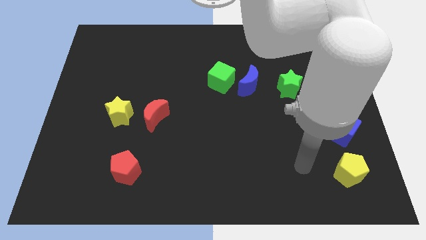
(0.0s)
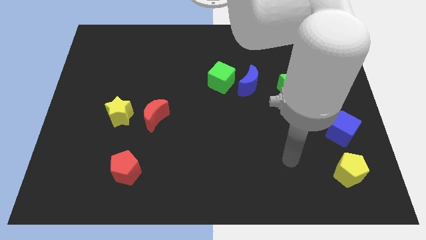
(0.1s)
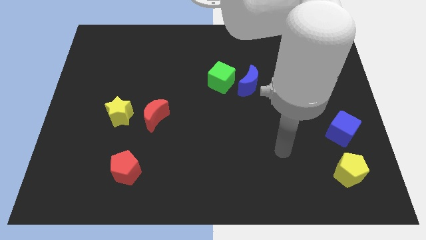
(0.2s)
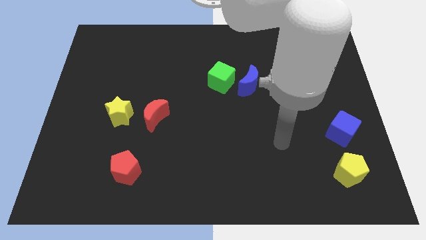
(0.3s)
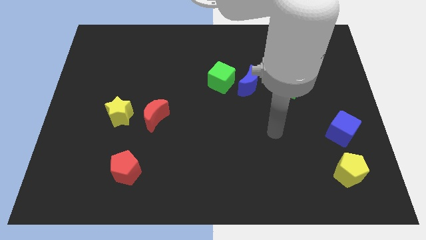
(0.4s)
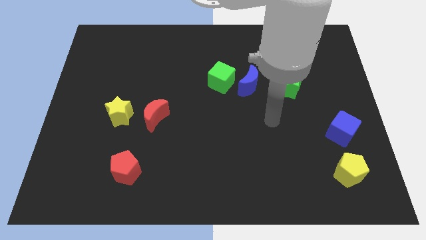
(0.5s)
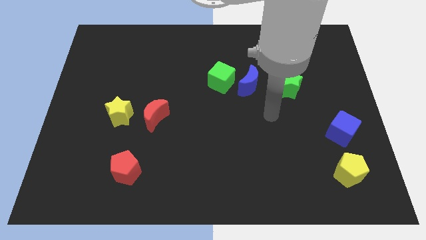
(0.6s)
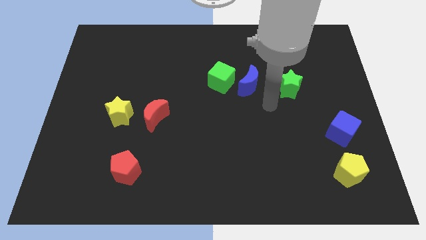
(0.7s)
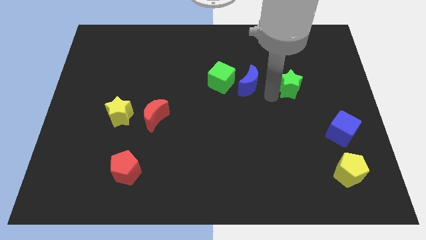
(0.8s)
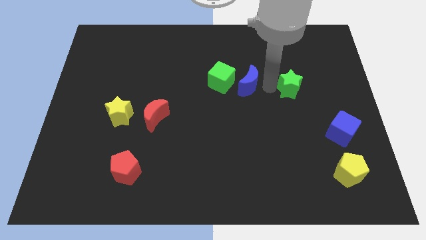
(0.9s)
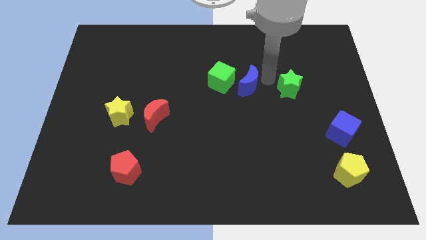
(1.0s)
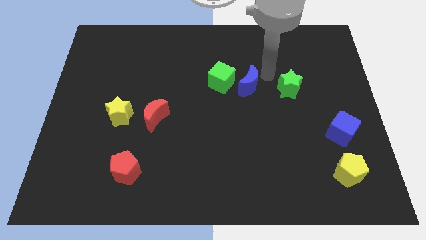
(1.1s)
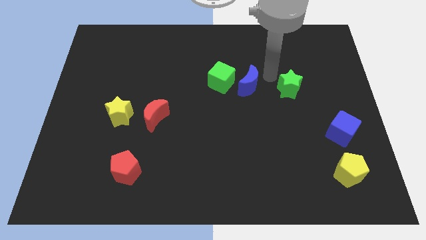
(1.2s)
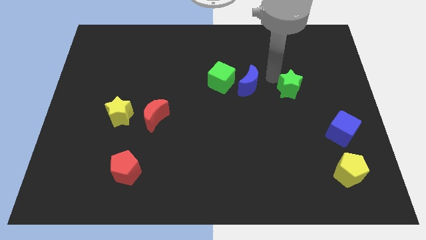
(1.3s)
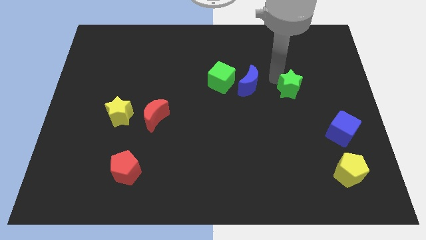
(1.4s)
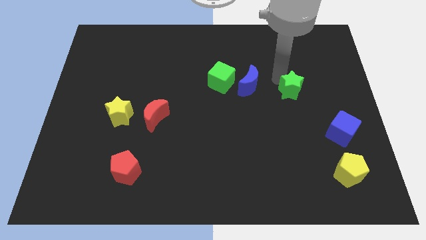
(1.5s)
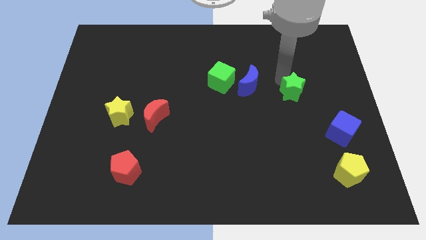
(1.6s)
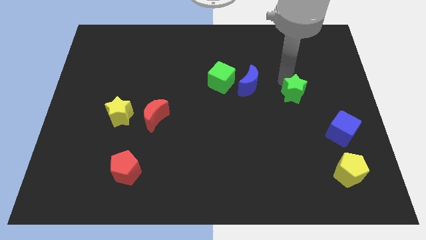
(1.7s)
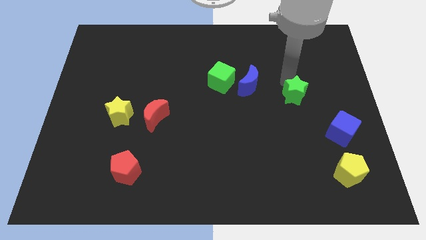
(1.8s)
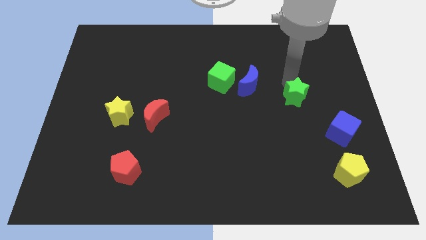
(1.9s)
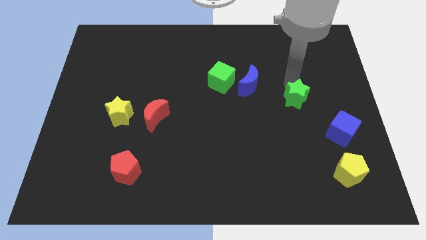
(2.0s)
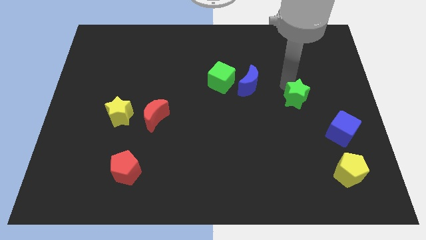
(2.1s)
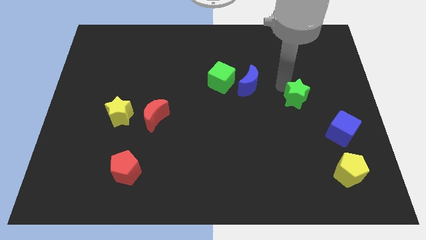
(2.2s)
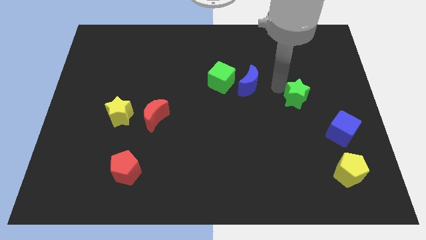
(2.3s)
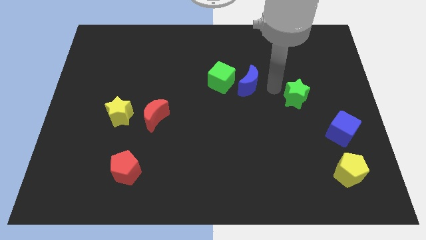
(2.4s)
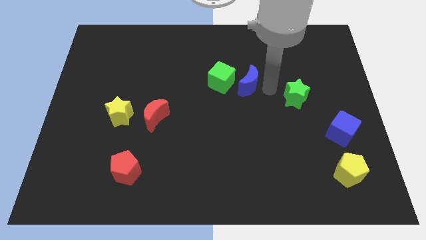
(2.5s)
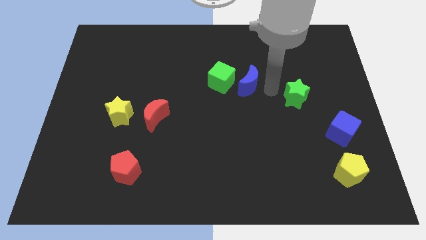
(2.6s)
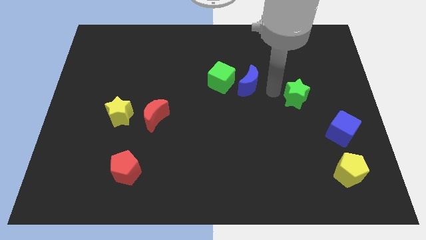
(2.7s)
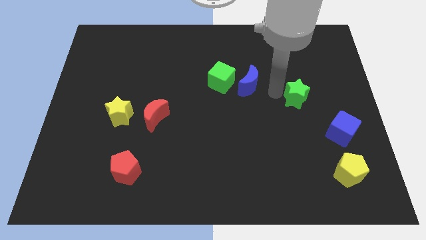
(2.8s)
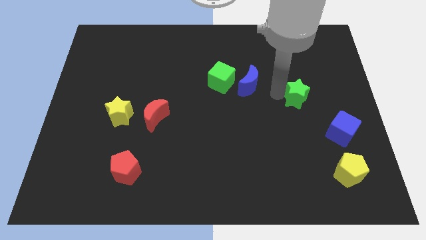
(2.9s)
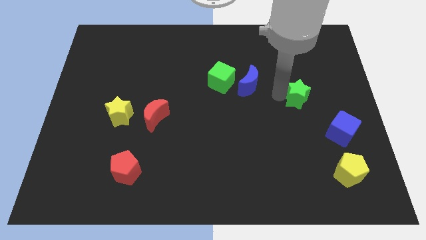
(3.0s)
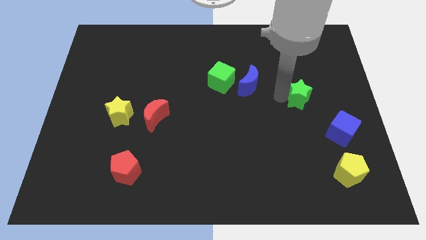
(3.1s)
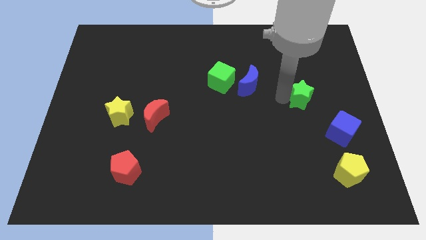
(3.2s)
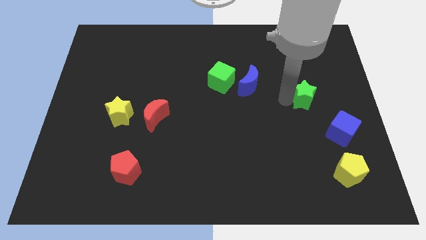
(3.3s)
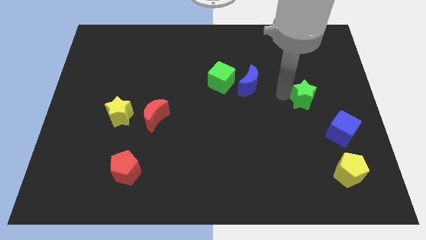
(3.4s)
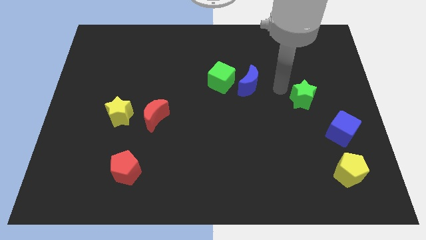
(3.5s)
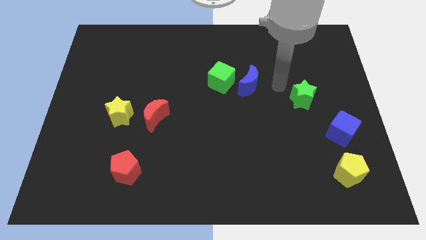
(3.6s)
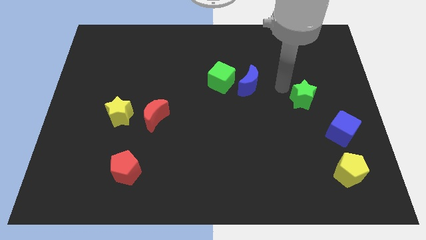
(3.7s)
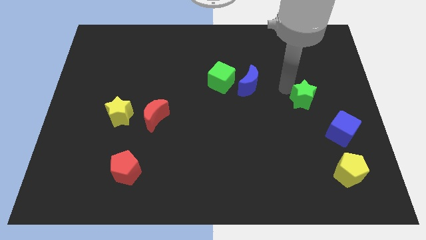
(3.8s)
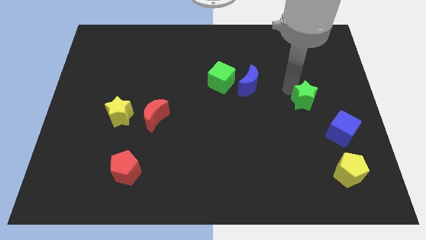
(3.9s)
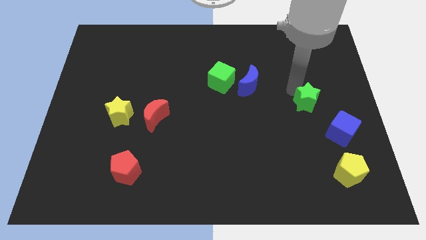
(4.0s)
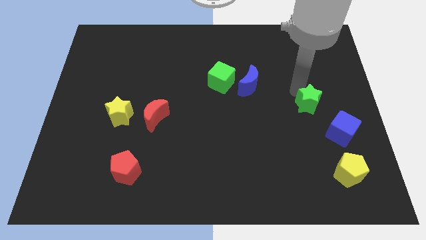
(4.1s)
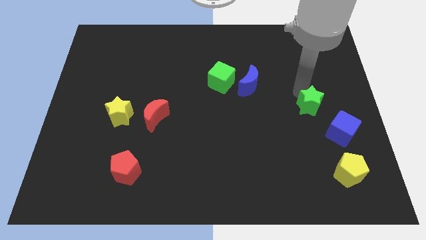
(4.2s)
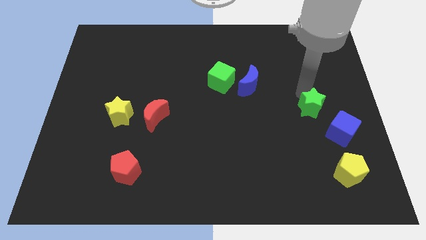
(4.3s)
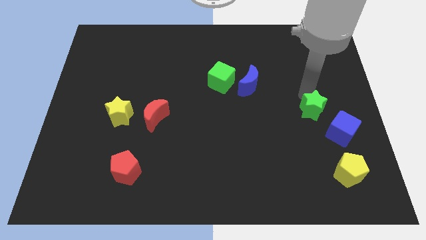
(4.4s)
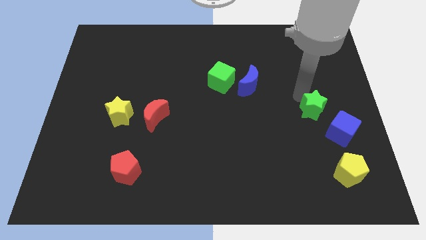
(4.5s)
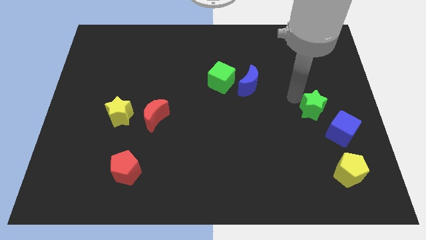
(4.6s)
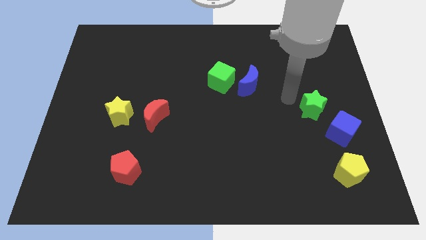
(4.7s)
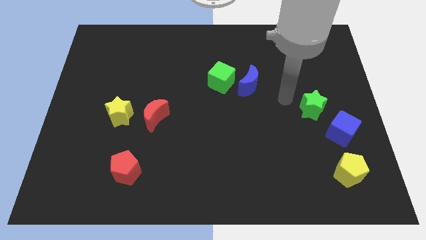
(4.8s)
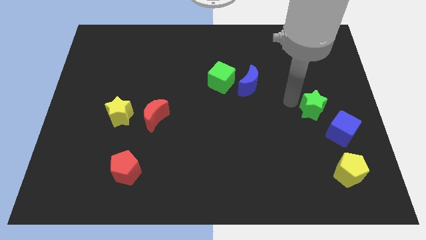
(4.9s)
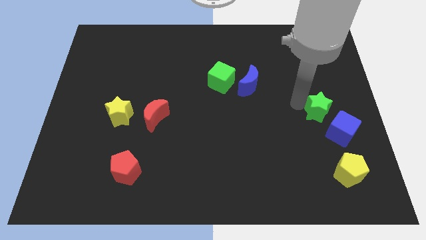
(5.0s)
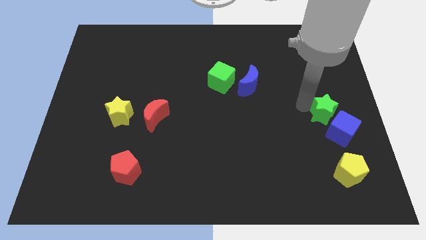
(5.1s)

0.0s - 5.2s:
push the green star to the top of the yellow pentagon

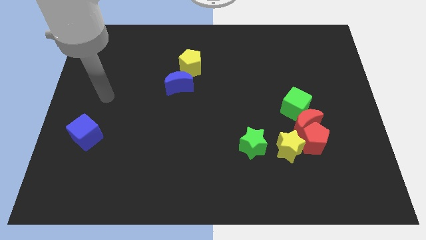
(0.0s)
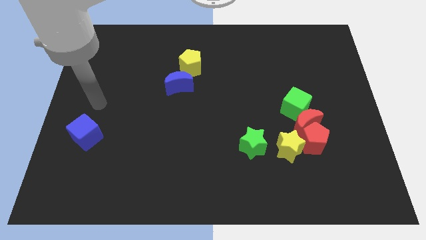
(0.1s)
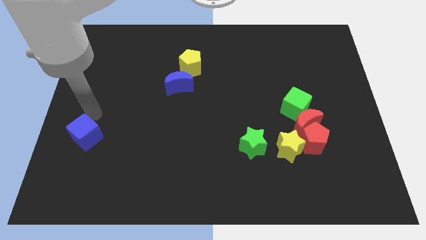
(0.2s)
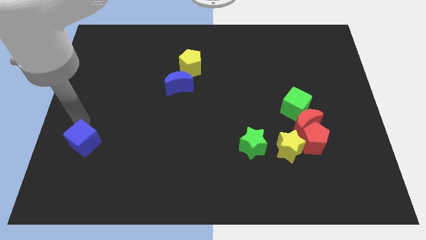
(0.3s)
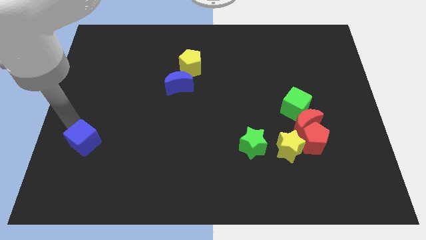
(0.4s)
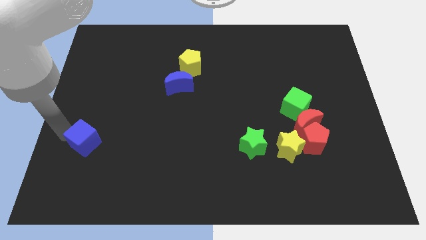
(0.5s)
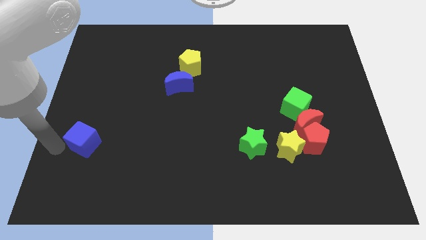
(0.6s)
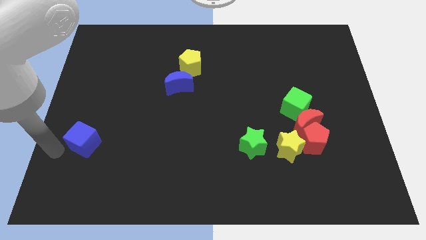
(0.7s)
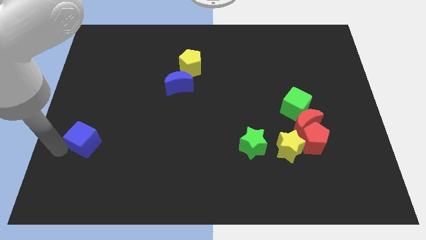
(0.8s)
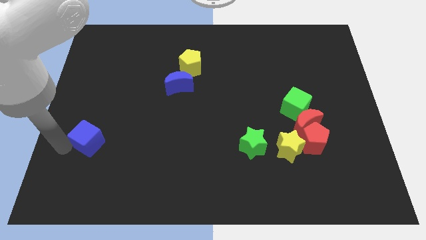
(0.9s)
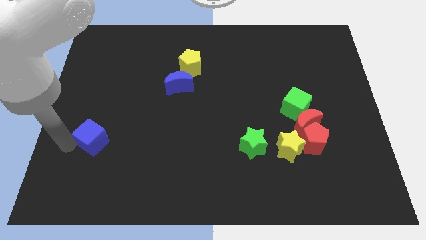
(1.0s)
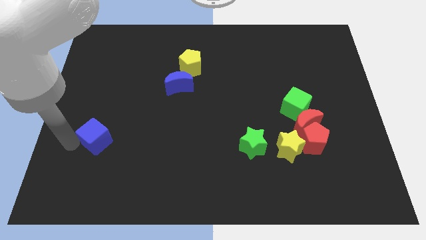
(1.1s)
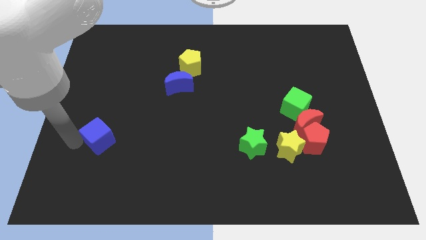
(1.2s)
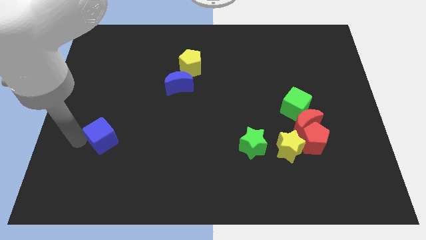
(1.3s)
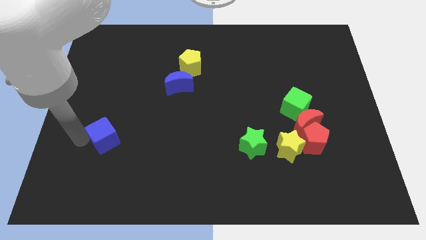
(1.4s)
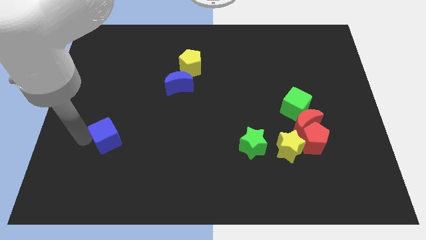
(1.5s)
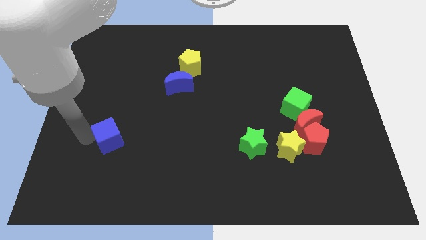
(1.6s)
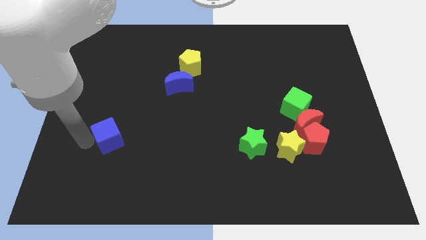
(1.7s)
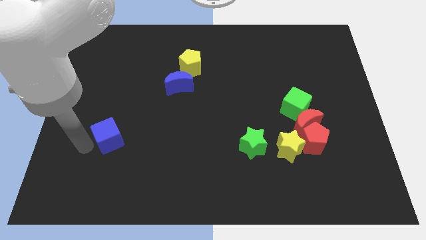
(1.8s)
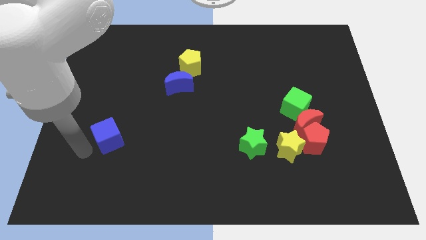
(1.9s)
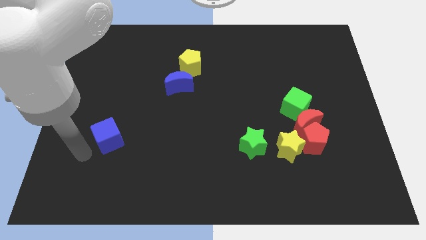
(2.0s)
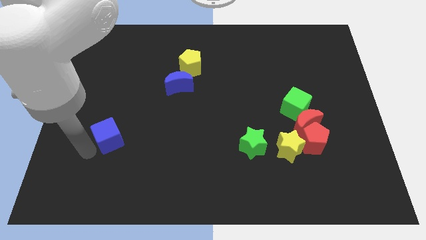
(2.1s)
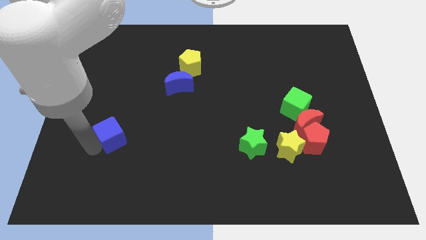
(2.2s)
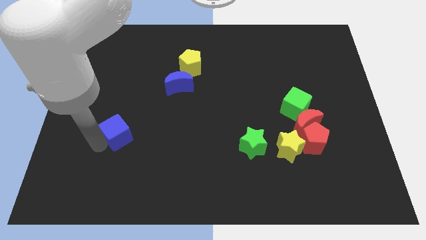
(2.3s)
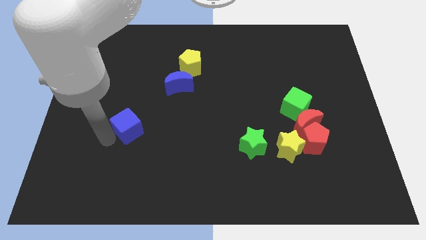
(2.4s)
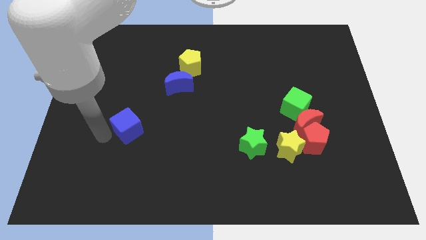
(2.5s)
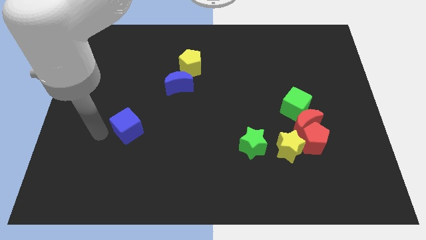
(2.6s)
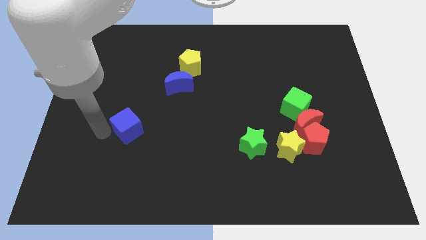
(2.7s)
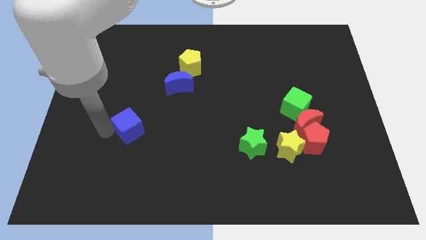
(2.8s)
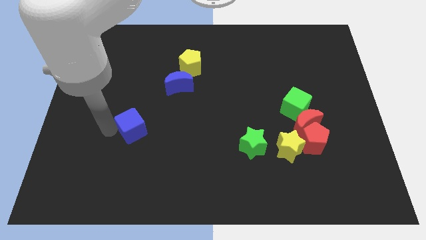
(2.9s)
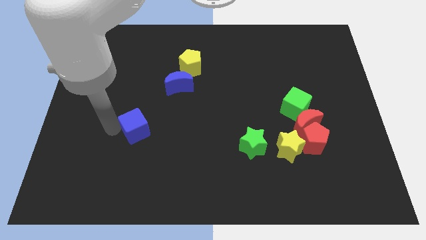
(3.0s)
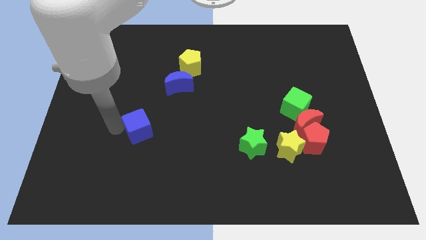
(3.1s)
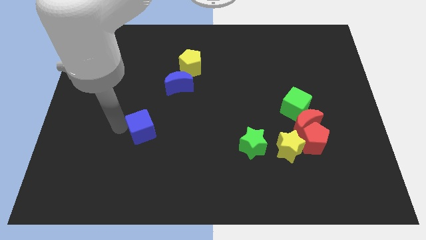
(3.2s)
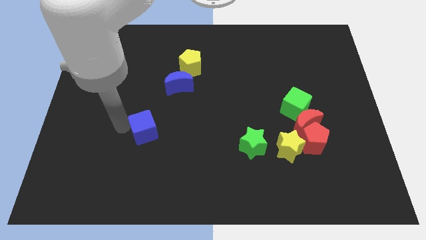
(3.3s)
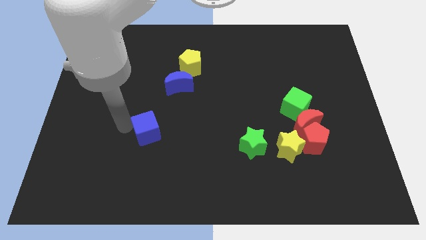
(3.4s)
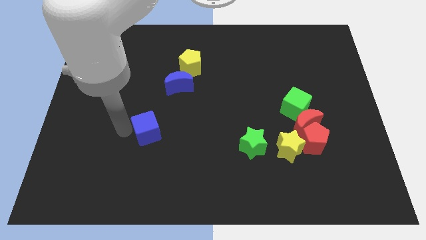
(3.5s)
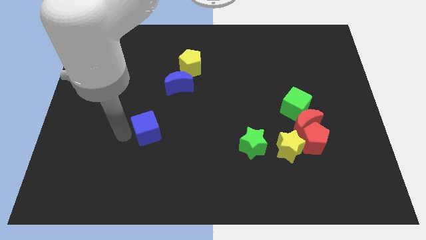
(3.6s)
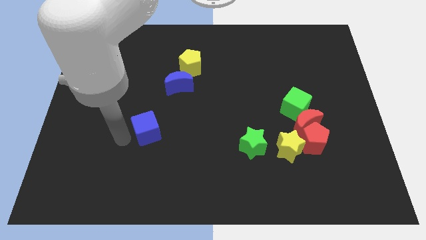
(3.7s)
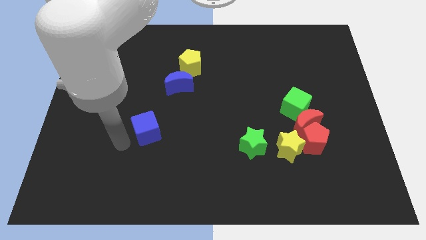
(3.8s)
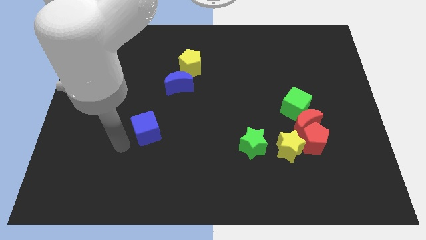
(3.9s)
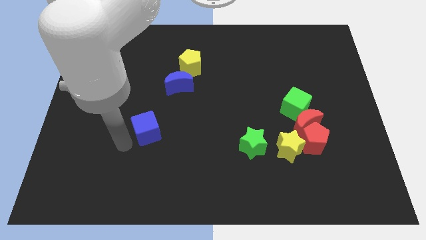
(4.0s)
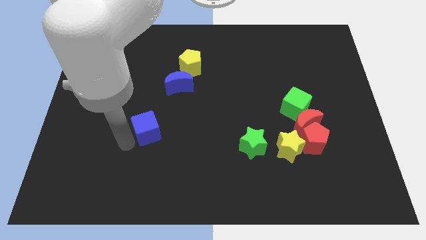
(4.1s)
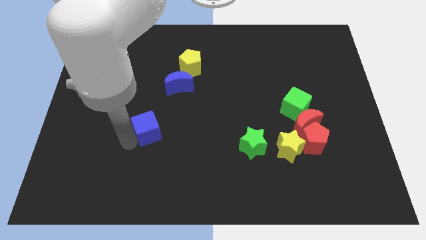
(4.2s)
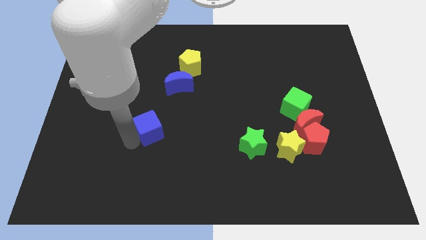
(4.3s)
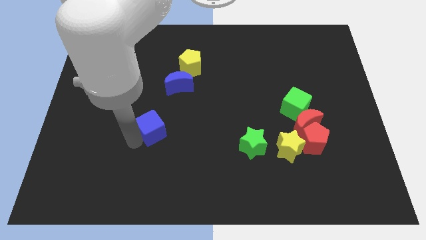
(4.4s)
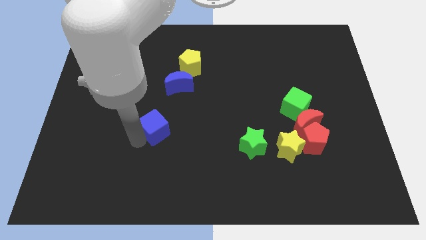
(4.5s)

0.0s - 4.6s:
put the blue cube to the bottom side of the blue moon
